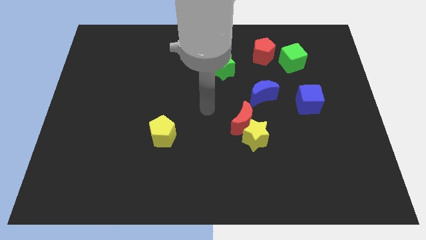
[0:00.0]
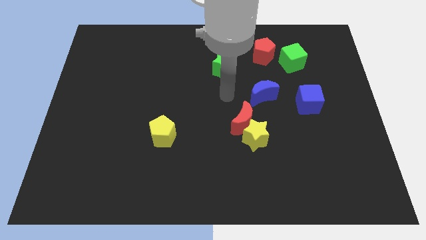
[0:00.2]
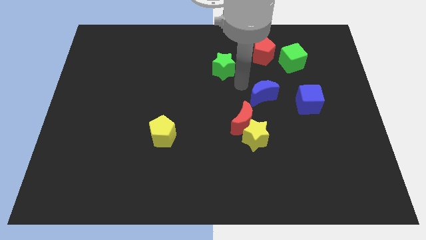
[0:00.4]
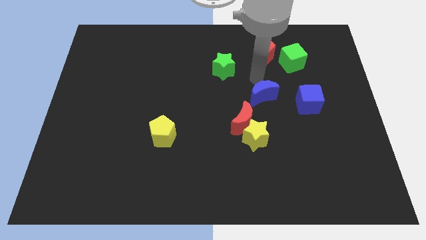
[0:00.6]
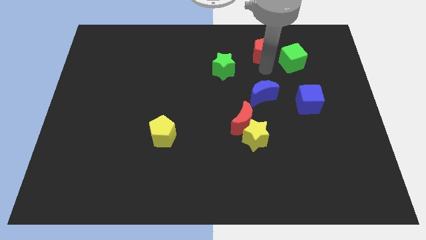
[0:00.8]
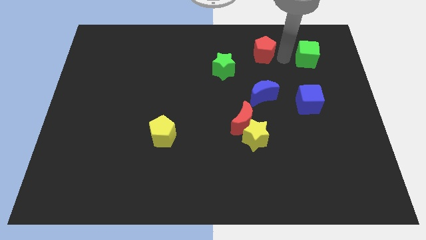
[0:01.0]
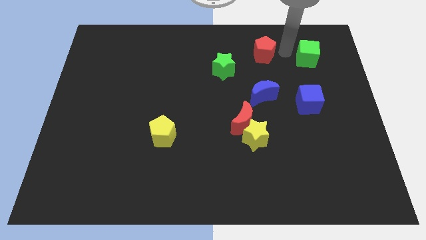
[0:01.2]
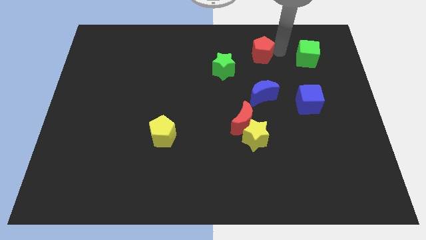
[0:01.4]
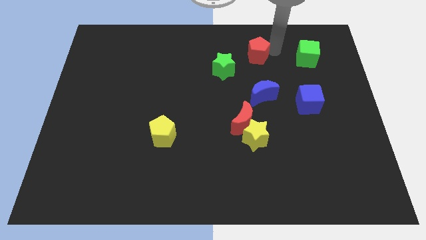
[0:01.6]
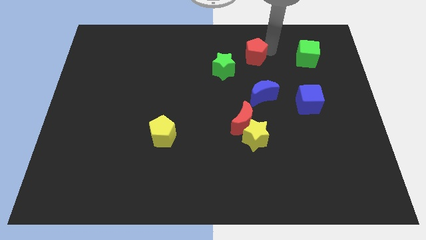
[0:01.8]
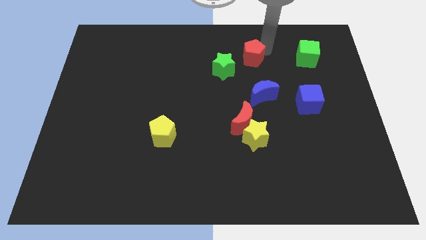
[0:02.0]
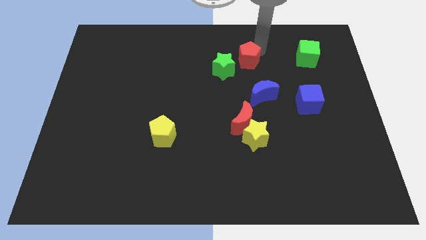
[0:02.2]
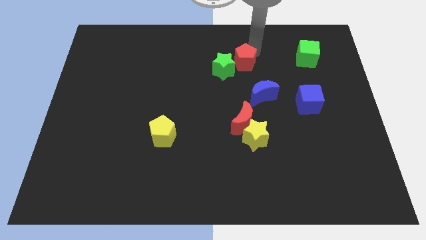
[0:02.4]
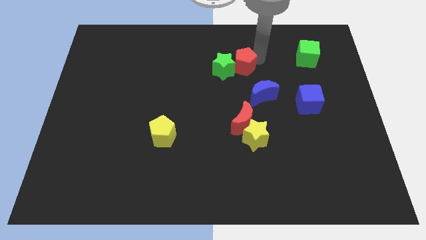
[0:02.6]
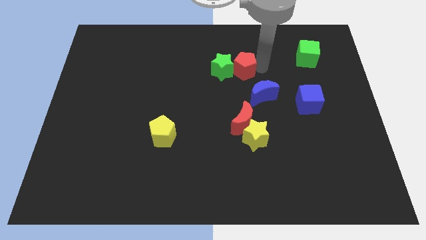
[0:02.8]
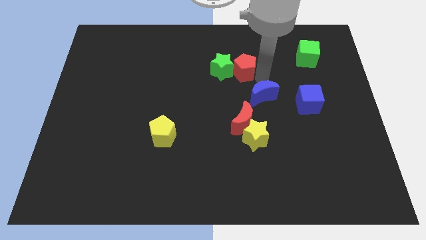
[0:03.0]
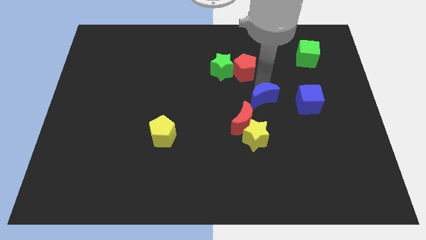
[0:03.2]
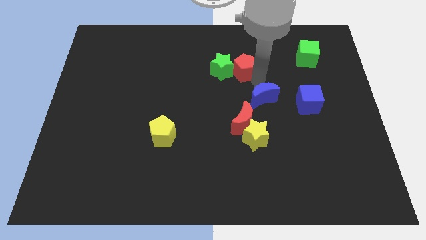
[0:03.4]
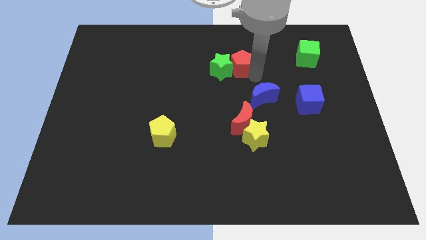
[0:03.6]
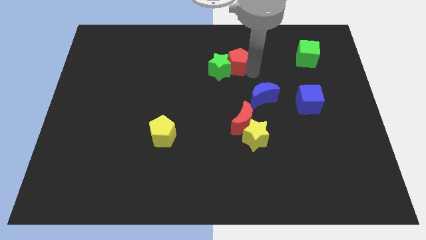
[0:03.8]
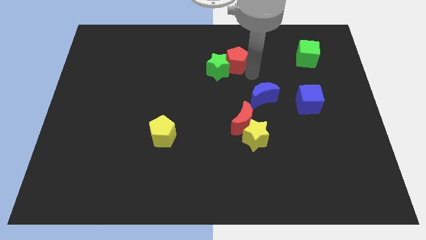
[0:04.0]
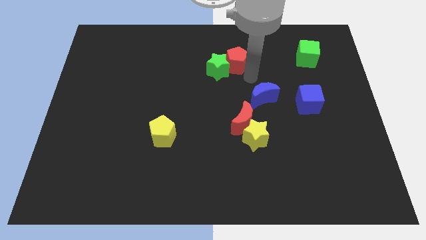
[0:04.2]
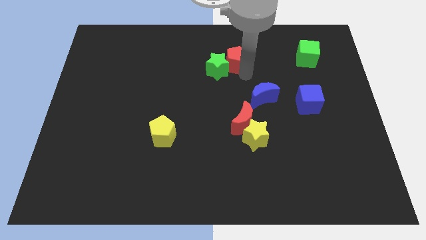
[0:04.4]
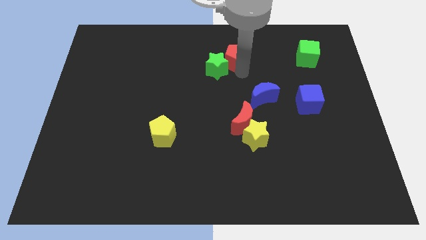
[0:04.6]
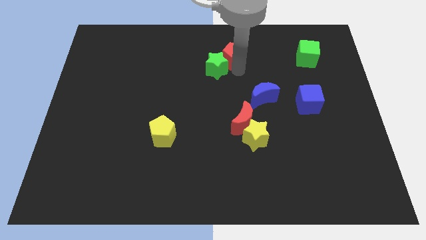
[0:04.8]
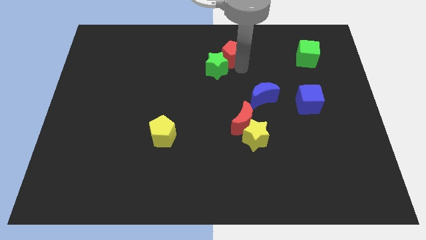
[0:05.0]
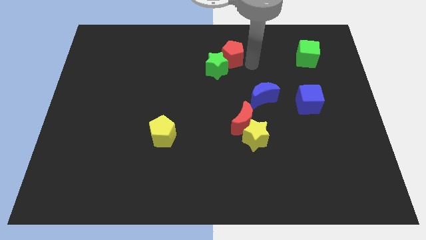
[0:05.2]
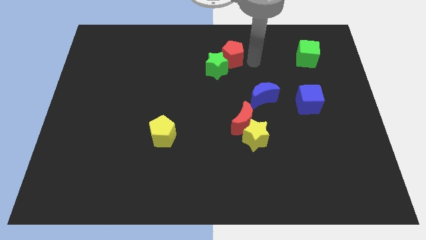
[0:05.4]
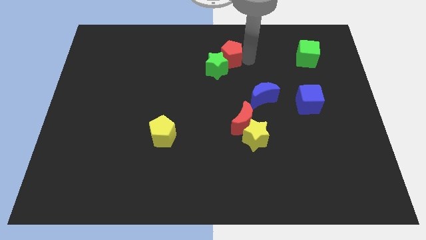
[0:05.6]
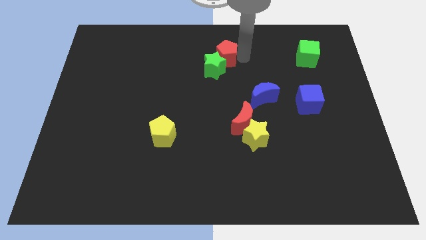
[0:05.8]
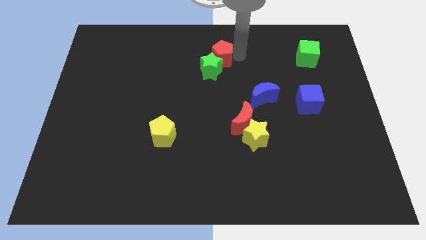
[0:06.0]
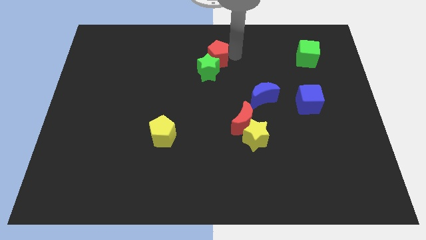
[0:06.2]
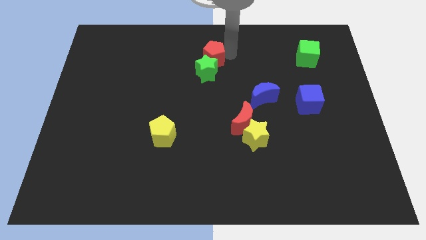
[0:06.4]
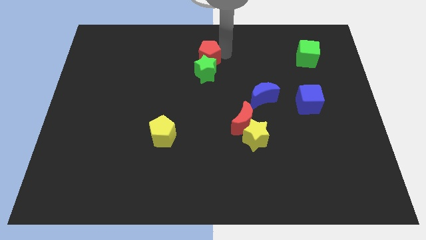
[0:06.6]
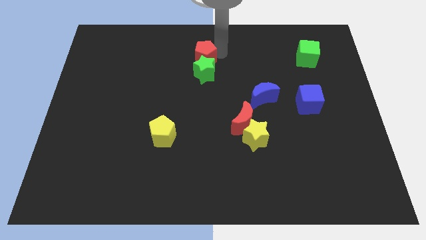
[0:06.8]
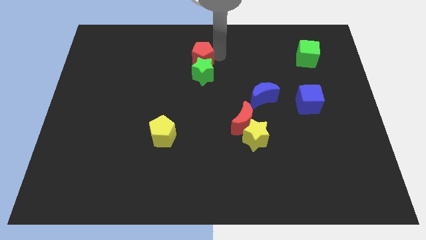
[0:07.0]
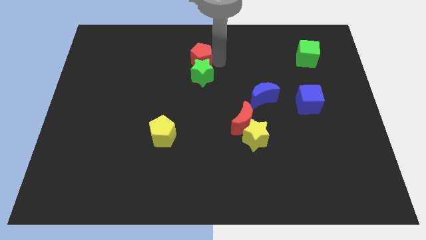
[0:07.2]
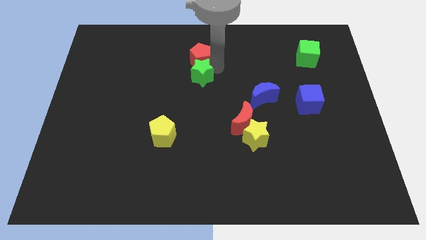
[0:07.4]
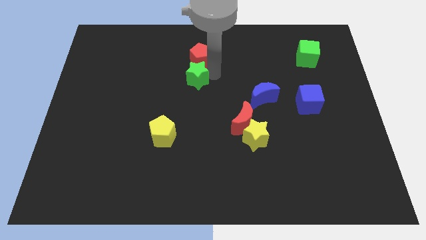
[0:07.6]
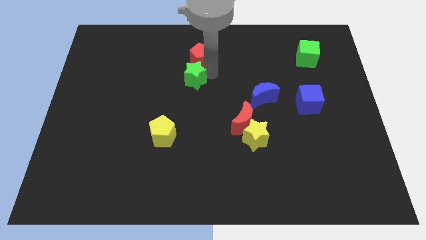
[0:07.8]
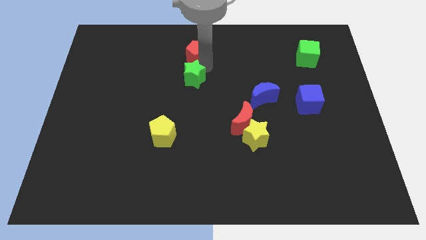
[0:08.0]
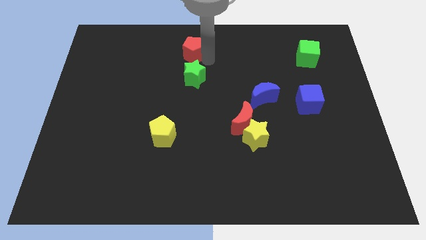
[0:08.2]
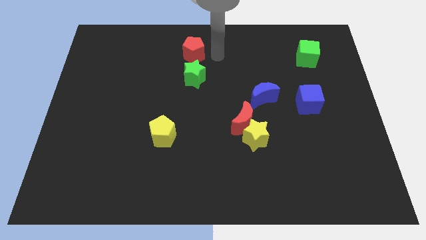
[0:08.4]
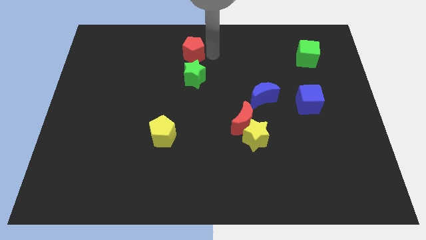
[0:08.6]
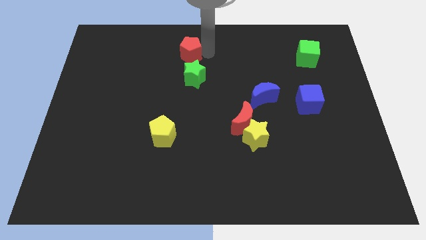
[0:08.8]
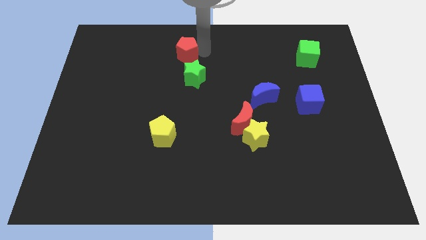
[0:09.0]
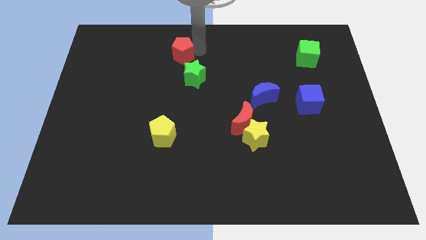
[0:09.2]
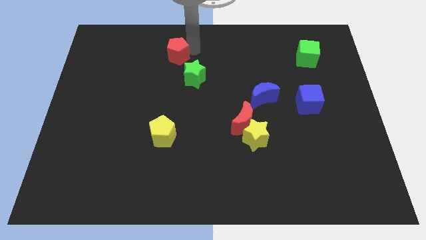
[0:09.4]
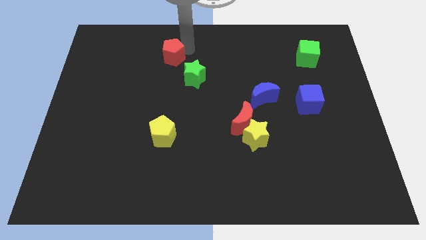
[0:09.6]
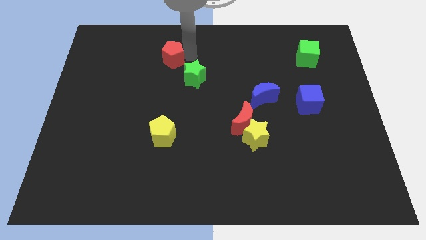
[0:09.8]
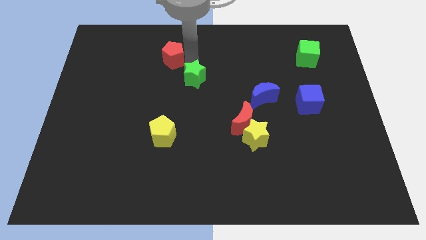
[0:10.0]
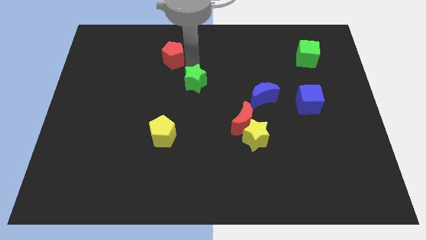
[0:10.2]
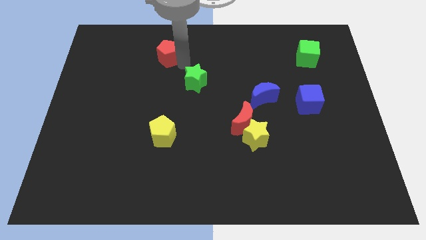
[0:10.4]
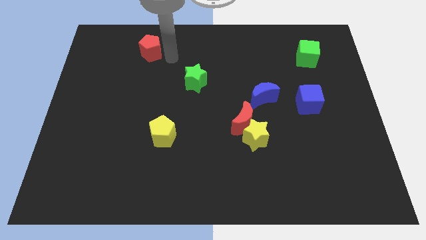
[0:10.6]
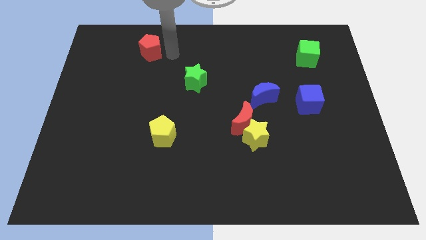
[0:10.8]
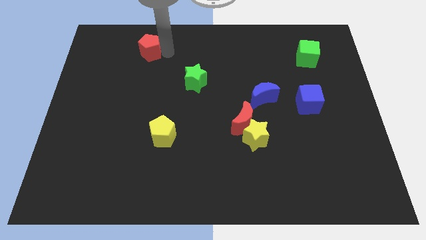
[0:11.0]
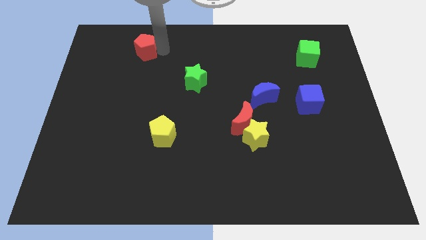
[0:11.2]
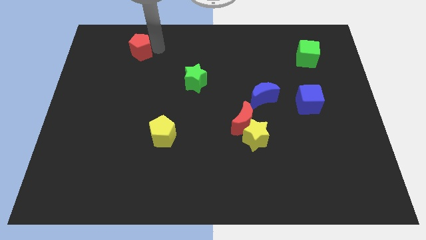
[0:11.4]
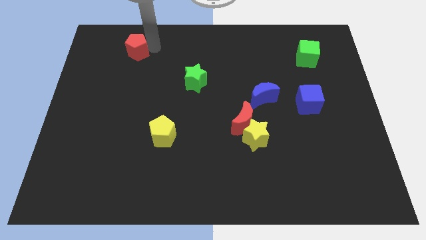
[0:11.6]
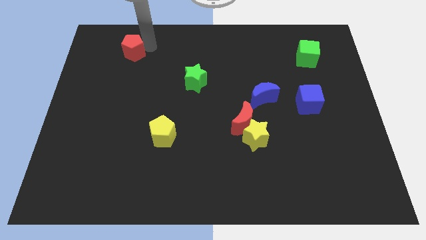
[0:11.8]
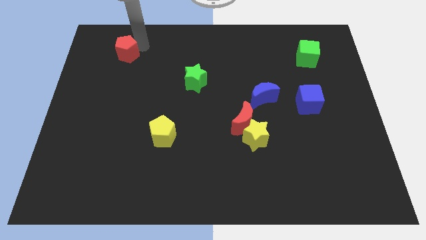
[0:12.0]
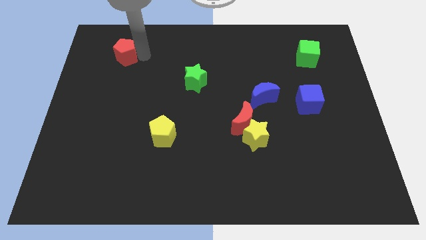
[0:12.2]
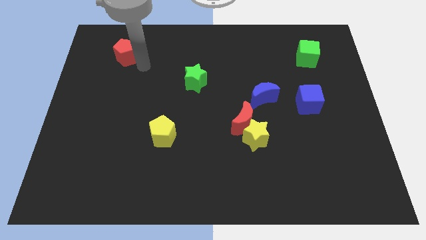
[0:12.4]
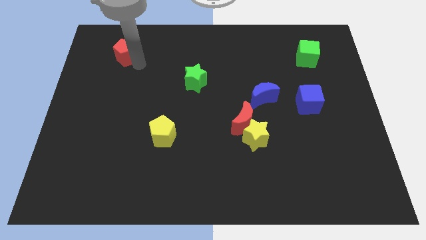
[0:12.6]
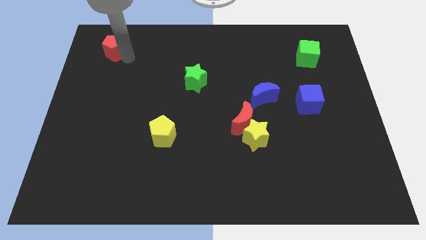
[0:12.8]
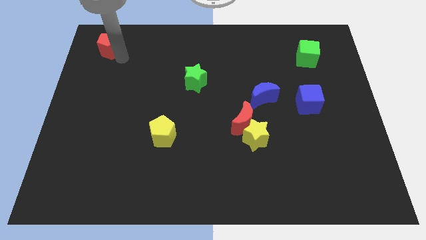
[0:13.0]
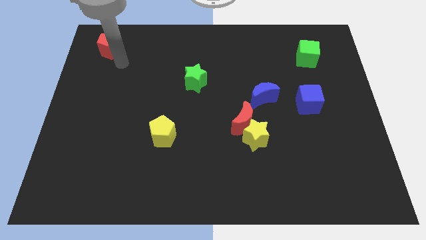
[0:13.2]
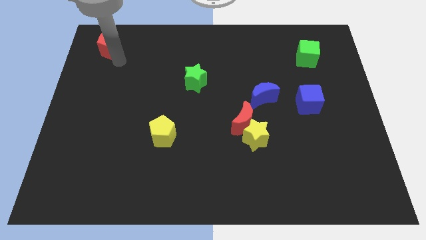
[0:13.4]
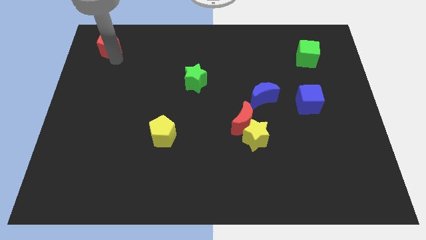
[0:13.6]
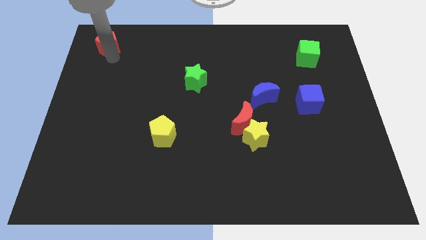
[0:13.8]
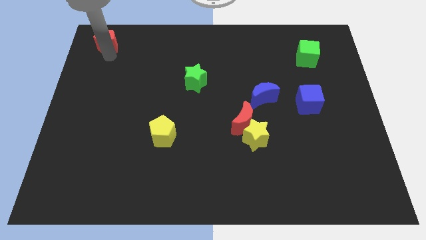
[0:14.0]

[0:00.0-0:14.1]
slide the red pentagon to the upper left corner
